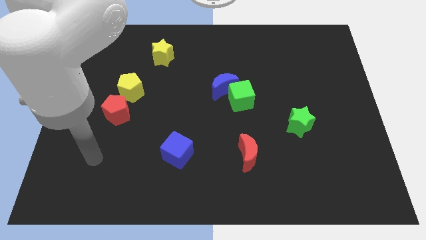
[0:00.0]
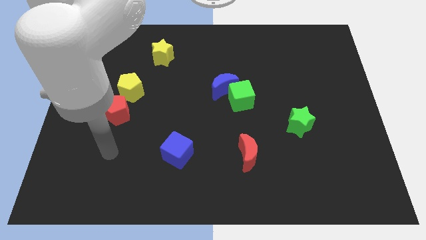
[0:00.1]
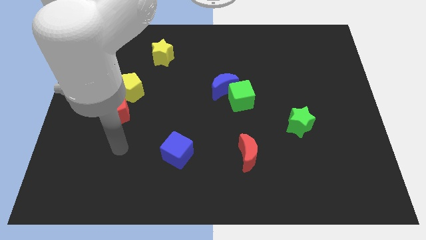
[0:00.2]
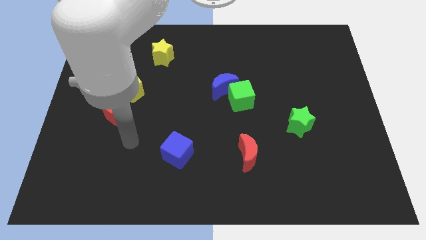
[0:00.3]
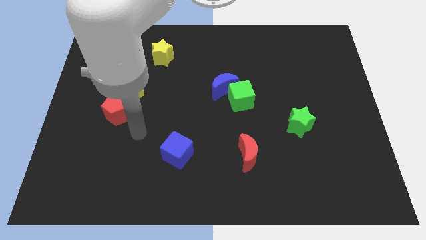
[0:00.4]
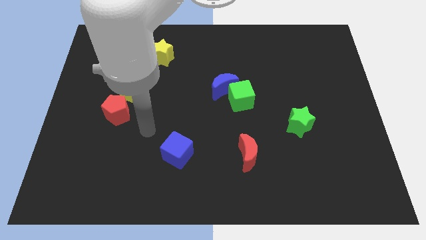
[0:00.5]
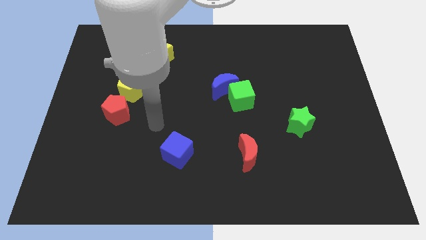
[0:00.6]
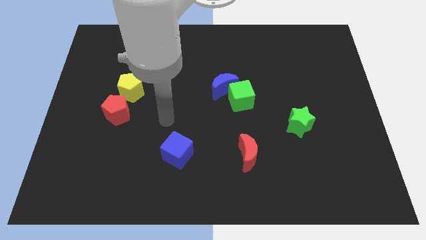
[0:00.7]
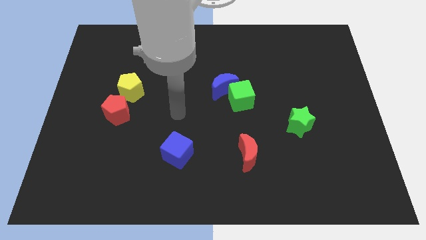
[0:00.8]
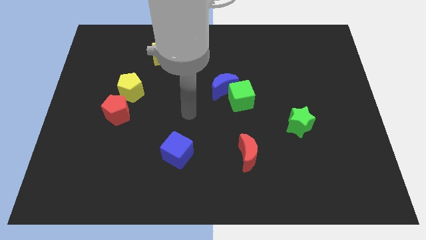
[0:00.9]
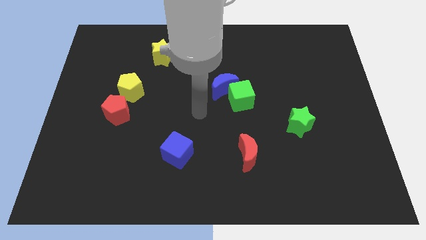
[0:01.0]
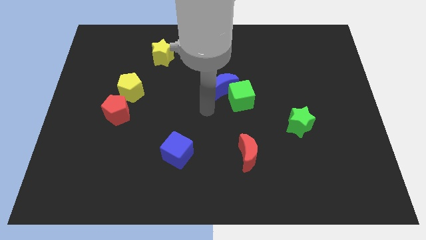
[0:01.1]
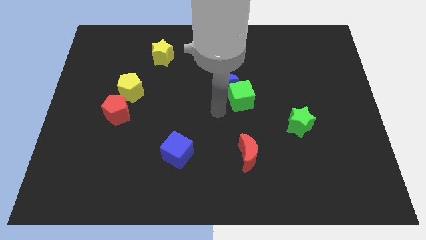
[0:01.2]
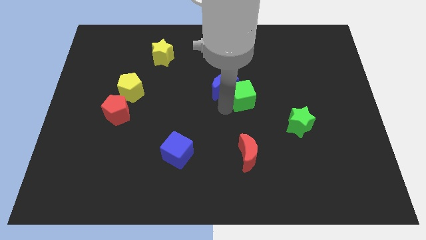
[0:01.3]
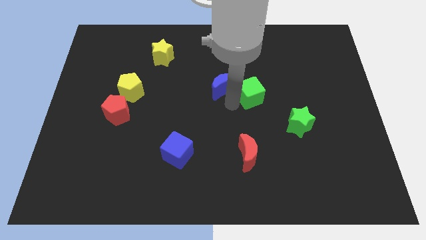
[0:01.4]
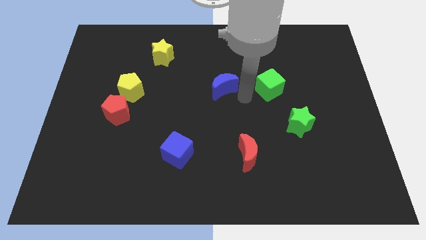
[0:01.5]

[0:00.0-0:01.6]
pull the blue moon apart from the green cube

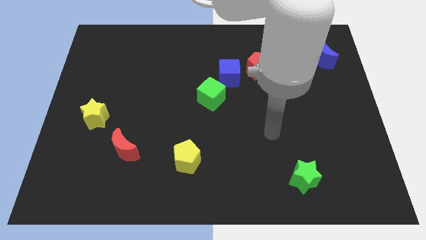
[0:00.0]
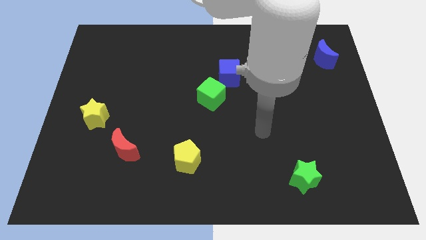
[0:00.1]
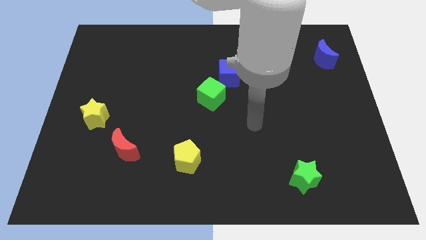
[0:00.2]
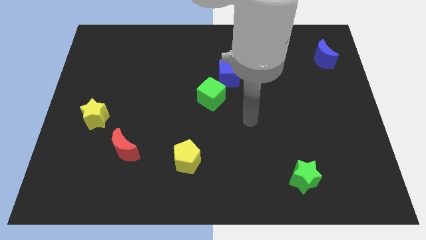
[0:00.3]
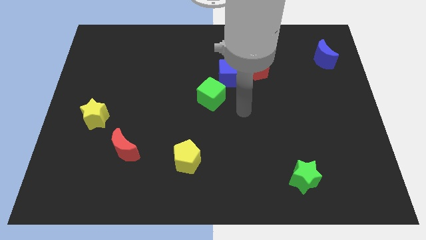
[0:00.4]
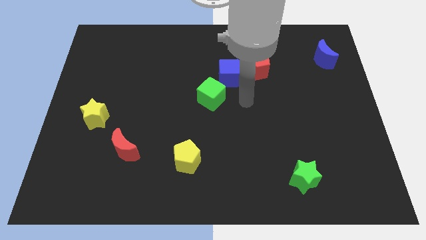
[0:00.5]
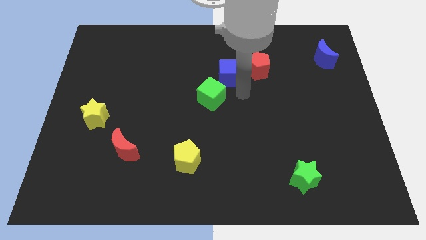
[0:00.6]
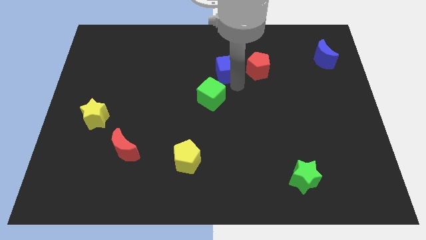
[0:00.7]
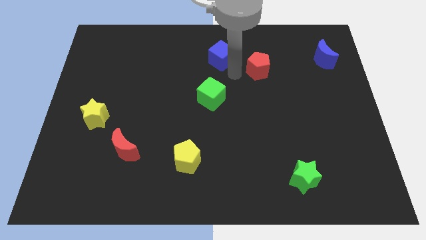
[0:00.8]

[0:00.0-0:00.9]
separate the red pentagon from the blue cube

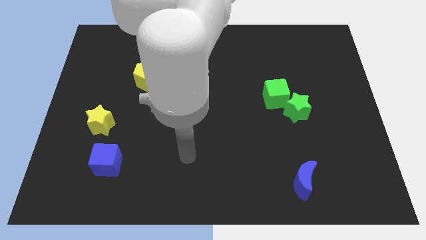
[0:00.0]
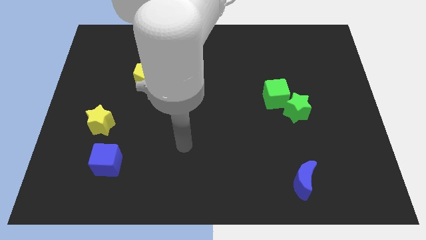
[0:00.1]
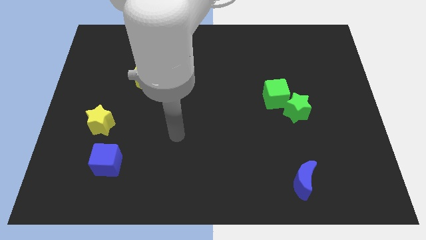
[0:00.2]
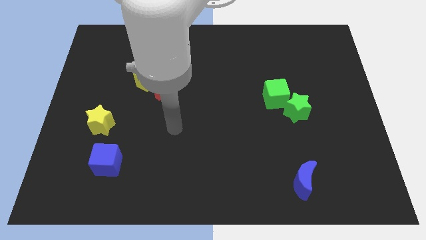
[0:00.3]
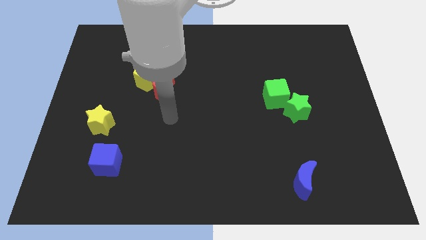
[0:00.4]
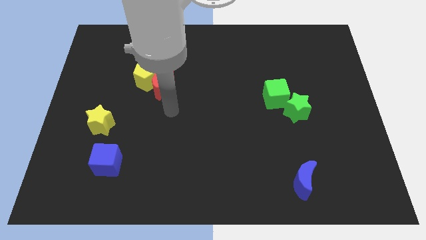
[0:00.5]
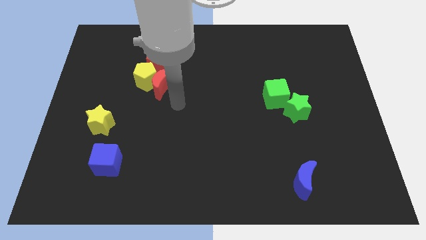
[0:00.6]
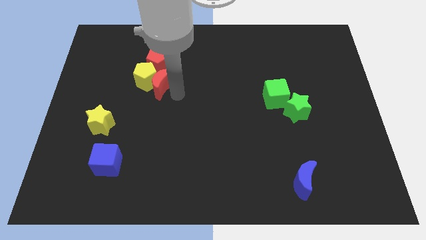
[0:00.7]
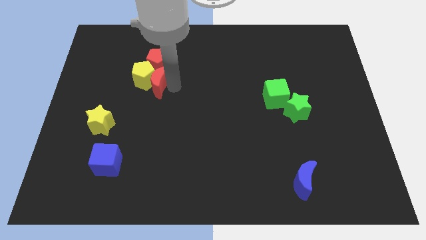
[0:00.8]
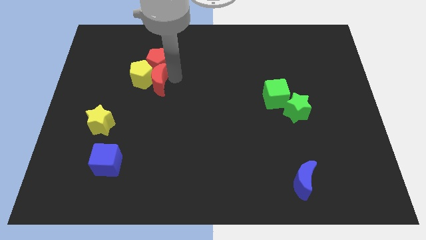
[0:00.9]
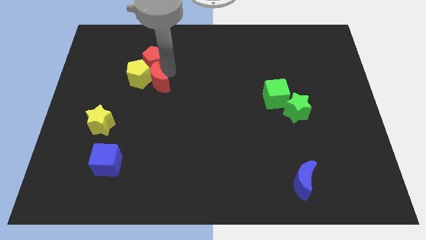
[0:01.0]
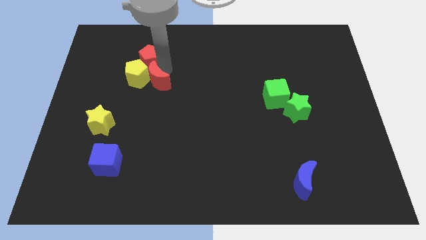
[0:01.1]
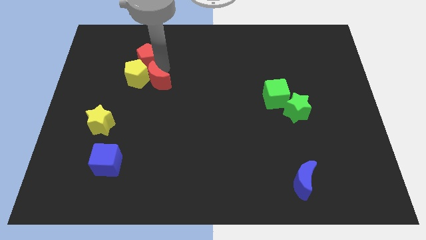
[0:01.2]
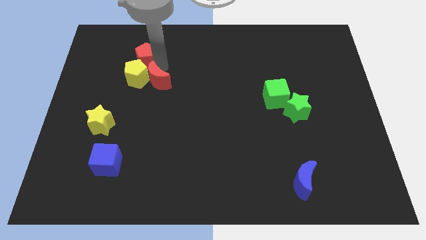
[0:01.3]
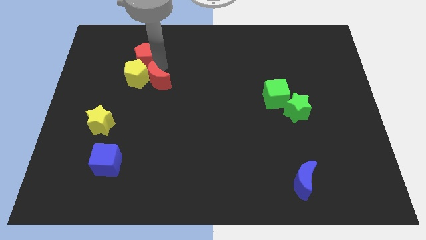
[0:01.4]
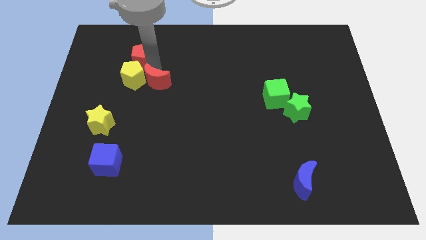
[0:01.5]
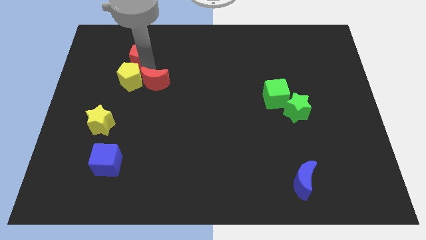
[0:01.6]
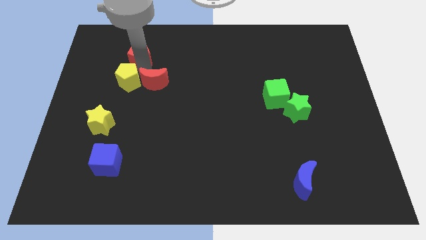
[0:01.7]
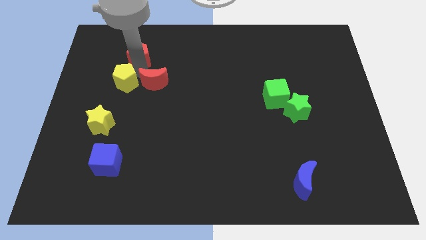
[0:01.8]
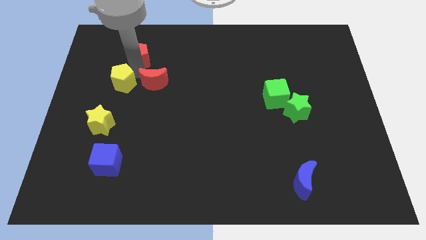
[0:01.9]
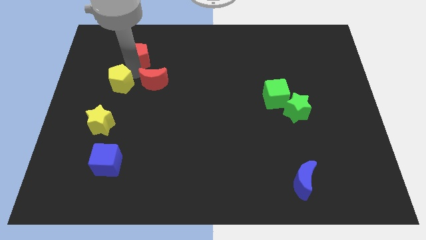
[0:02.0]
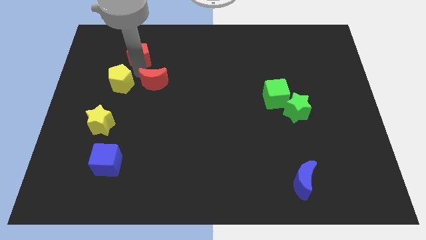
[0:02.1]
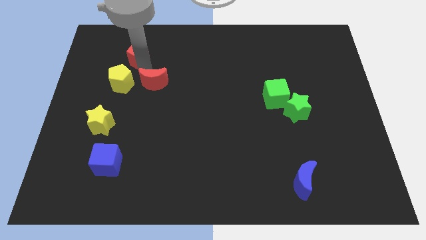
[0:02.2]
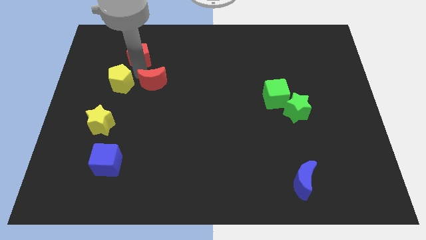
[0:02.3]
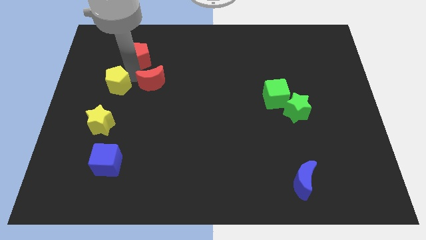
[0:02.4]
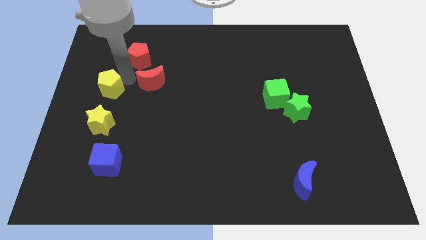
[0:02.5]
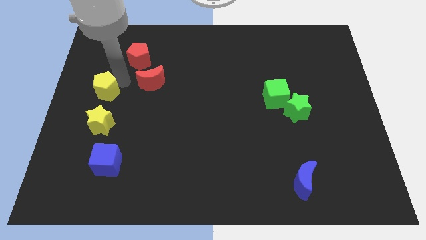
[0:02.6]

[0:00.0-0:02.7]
move the yellow pentagon away from the red moon and red pentagon

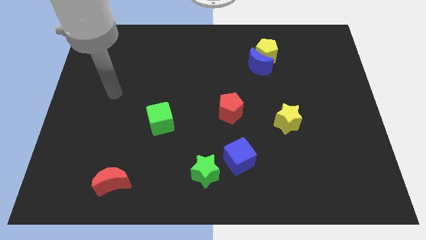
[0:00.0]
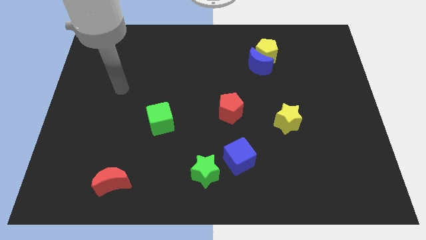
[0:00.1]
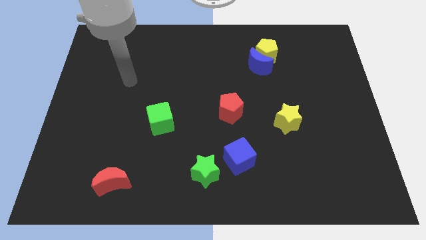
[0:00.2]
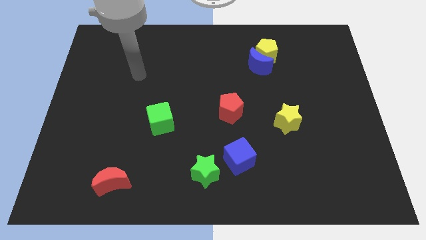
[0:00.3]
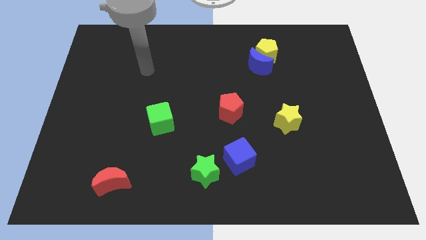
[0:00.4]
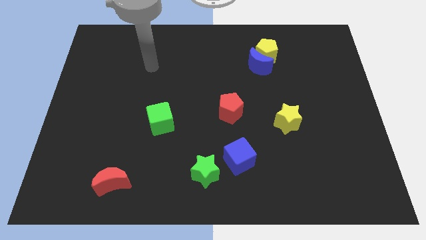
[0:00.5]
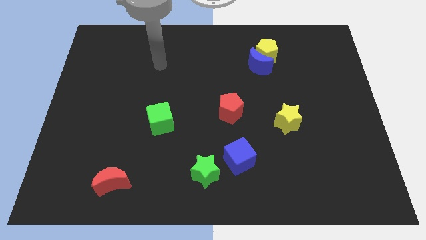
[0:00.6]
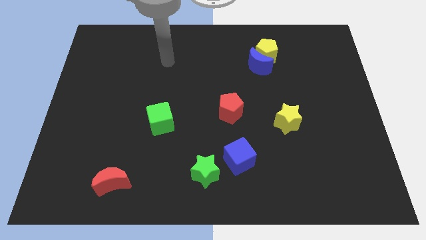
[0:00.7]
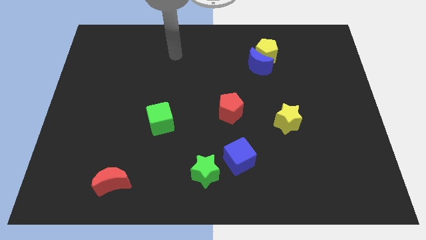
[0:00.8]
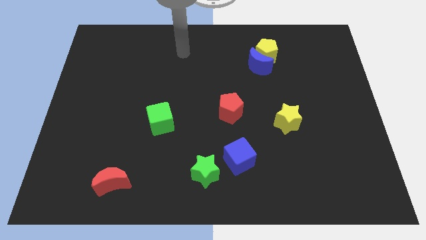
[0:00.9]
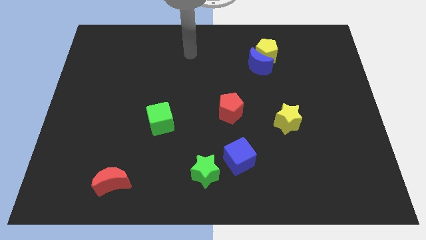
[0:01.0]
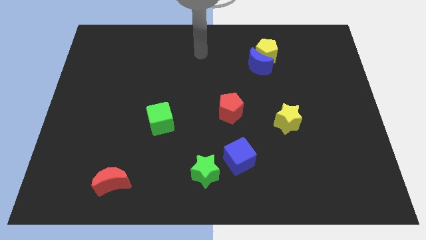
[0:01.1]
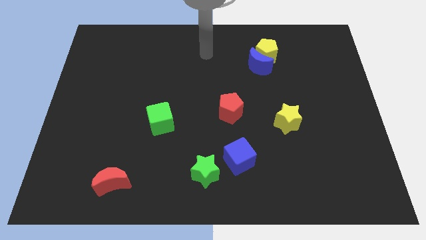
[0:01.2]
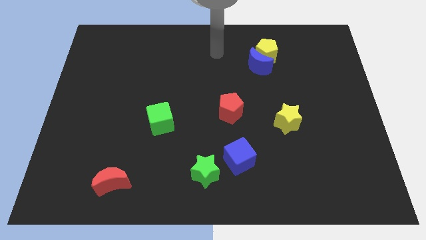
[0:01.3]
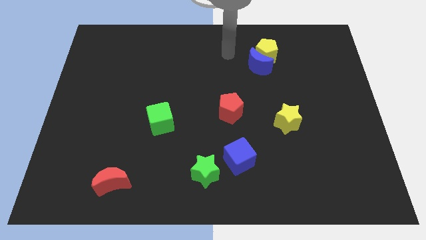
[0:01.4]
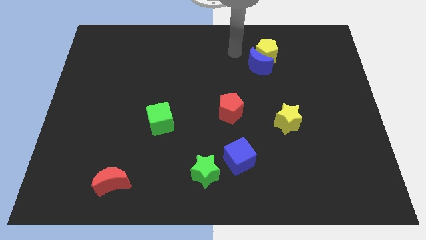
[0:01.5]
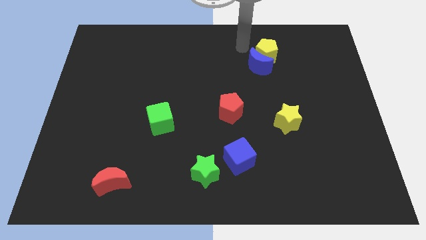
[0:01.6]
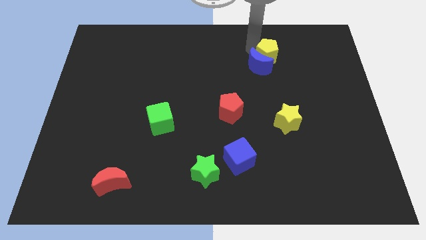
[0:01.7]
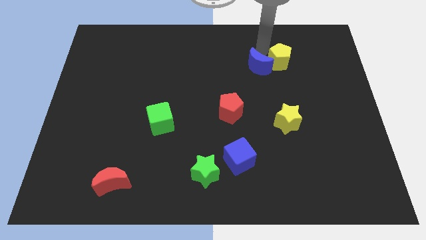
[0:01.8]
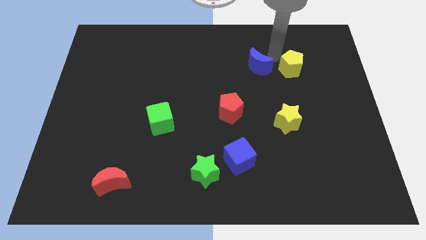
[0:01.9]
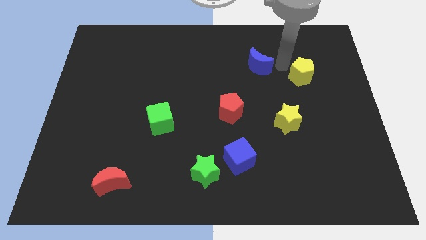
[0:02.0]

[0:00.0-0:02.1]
separate the blue moon from the yellow pentagon

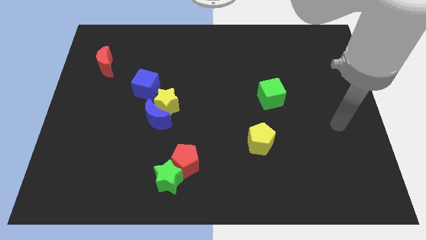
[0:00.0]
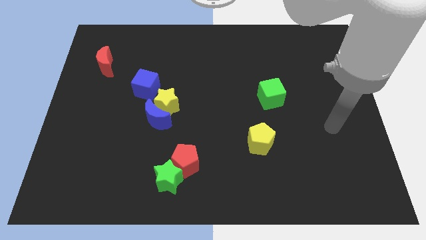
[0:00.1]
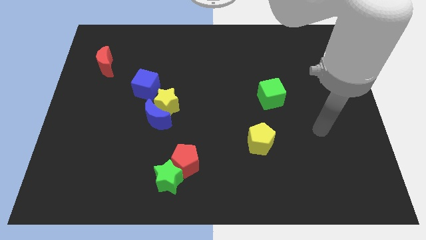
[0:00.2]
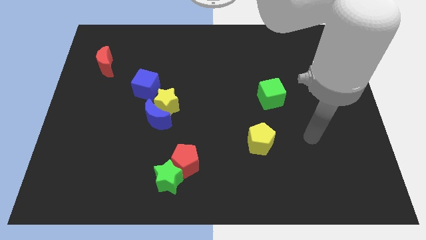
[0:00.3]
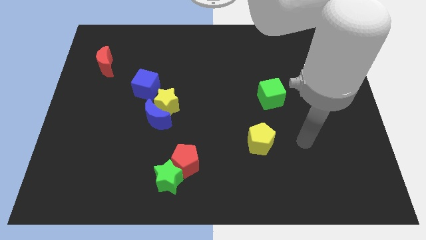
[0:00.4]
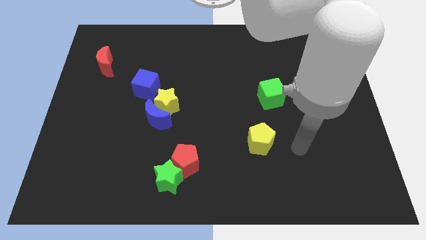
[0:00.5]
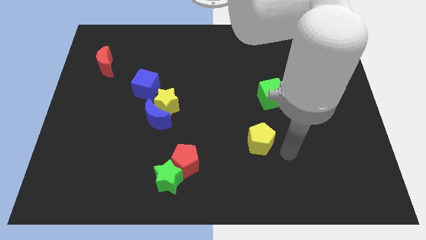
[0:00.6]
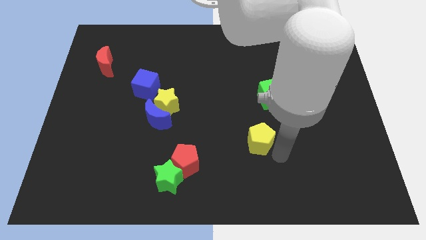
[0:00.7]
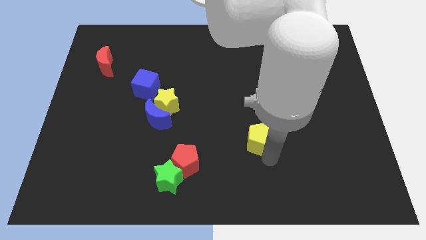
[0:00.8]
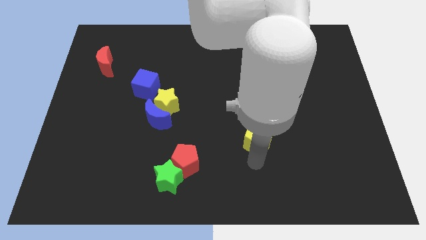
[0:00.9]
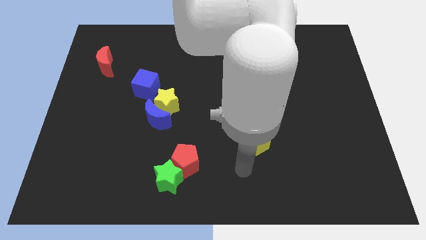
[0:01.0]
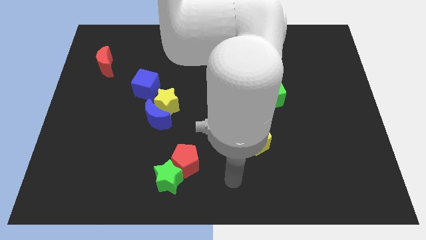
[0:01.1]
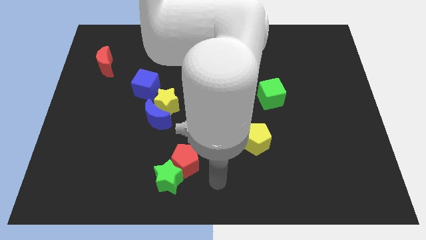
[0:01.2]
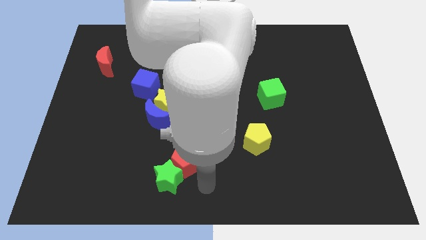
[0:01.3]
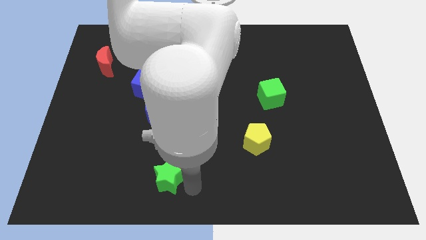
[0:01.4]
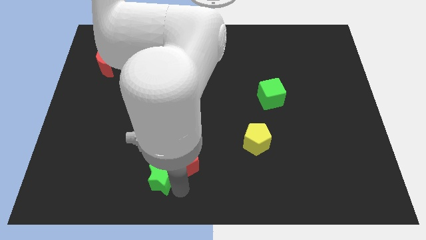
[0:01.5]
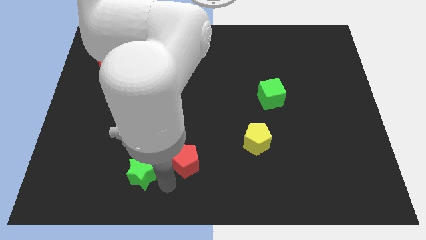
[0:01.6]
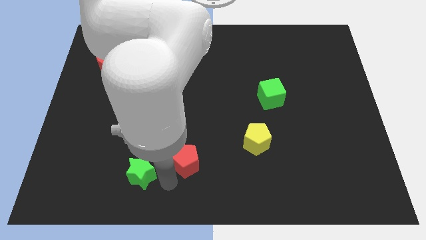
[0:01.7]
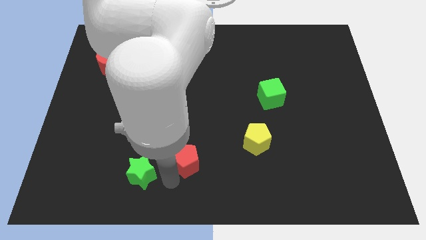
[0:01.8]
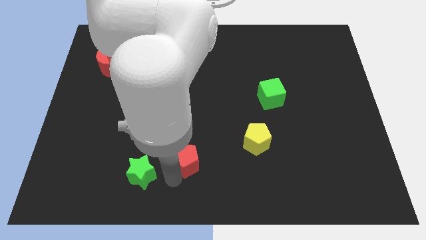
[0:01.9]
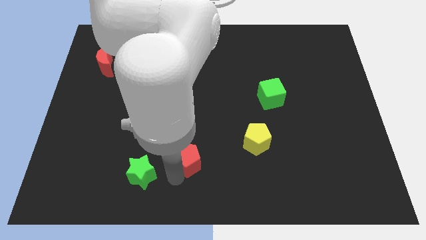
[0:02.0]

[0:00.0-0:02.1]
move the red pentagon away from the green star
